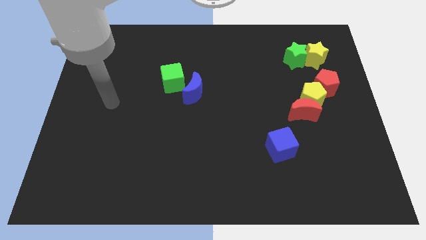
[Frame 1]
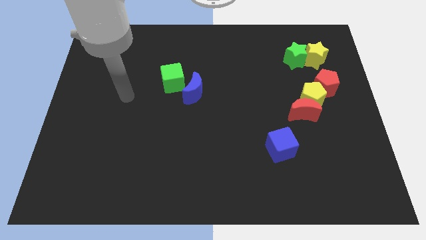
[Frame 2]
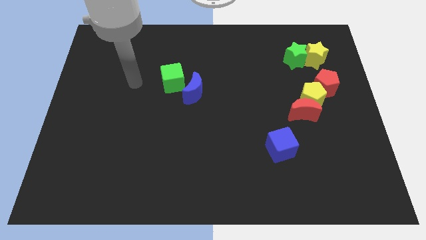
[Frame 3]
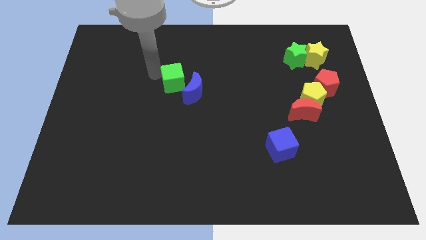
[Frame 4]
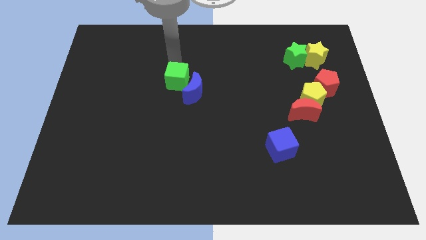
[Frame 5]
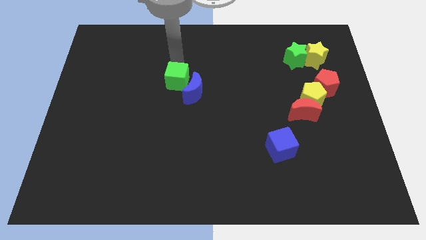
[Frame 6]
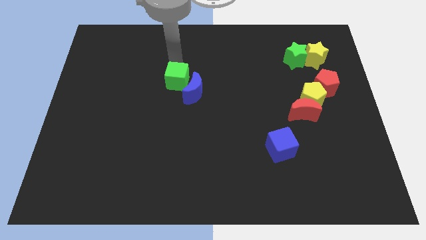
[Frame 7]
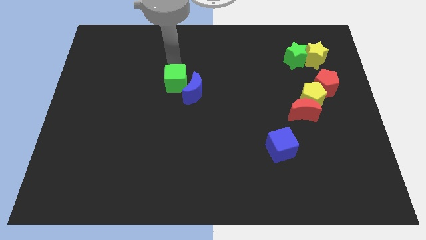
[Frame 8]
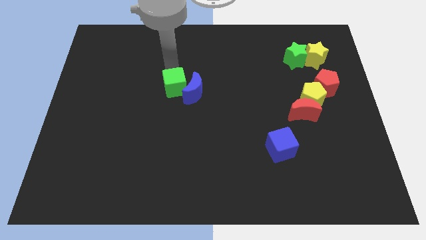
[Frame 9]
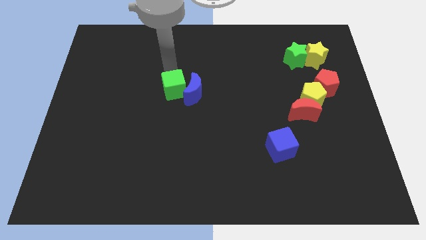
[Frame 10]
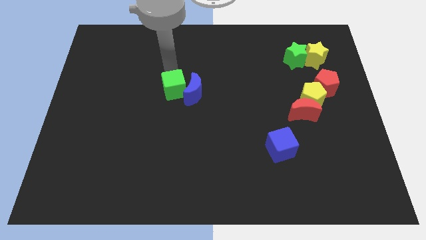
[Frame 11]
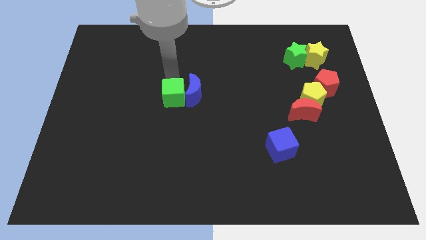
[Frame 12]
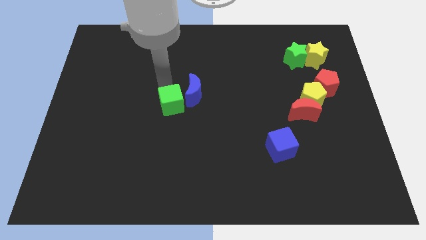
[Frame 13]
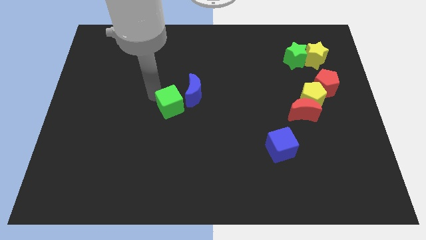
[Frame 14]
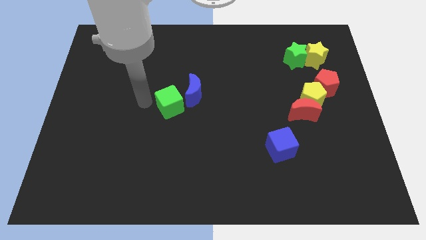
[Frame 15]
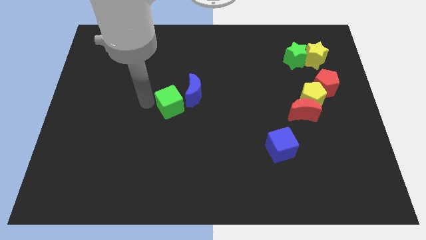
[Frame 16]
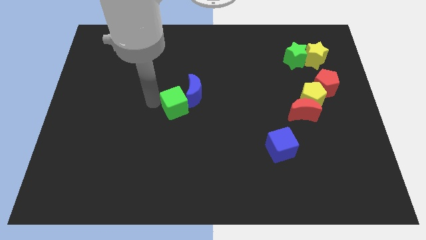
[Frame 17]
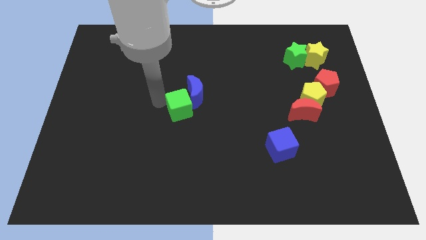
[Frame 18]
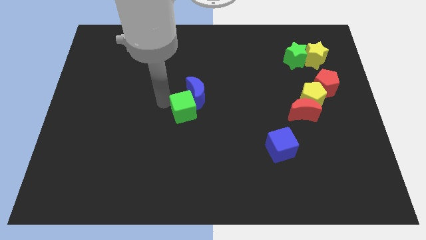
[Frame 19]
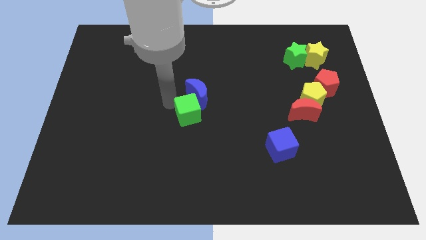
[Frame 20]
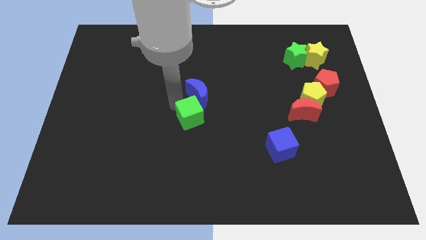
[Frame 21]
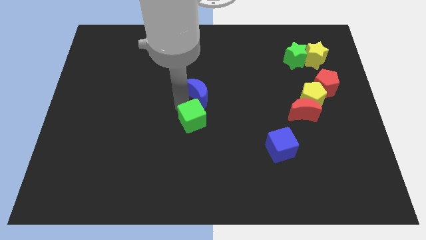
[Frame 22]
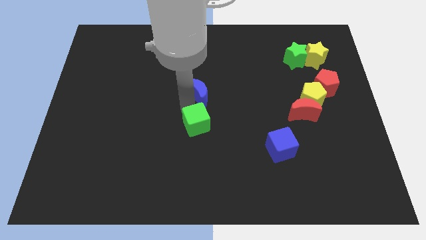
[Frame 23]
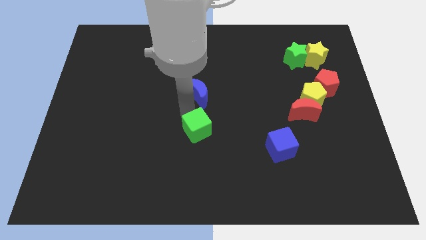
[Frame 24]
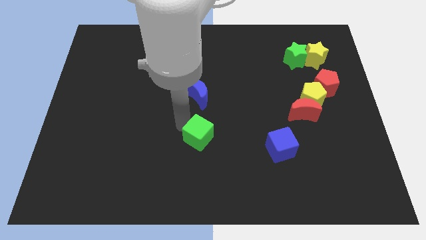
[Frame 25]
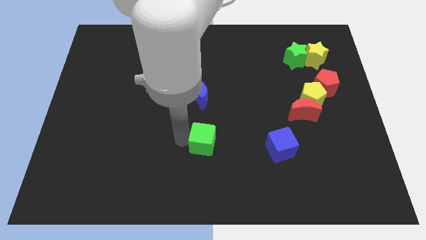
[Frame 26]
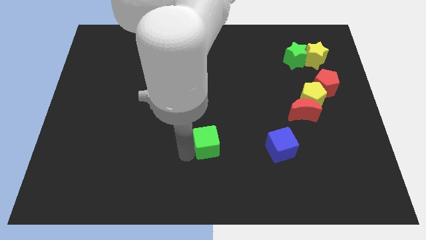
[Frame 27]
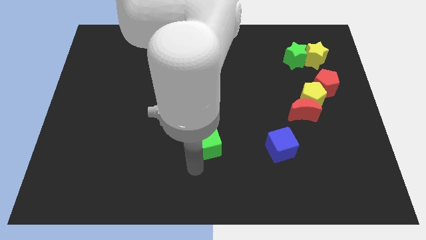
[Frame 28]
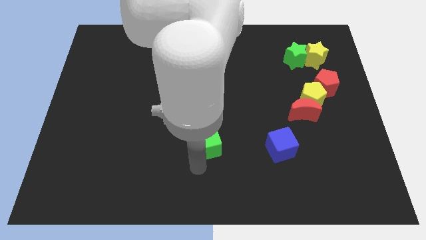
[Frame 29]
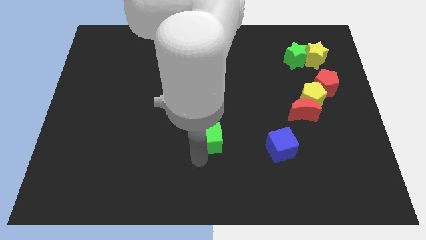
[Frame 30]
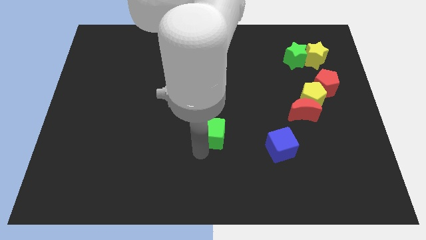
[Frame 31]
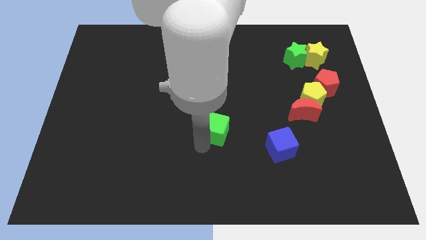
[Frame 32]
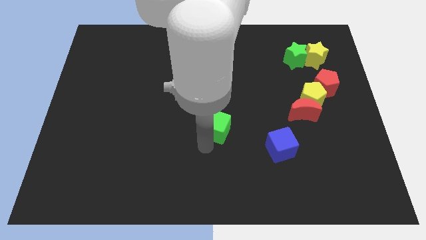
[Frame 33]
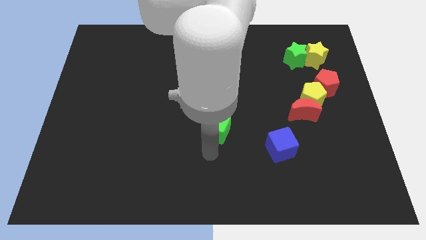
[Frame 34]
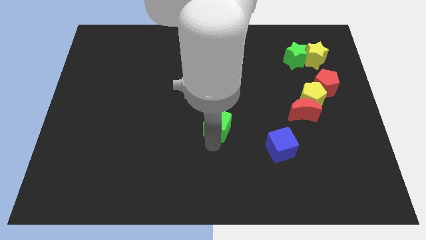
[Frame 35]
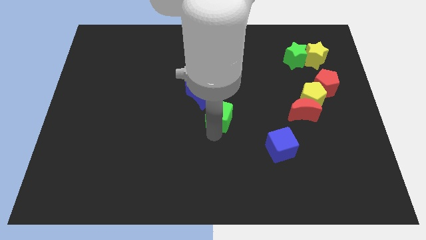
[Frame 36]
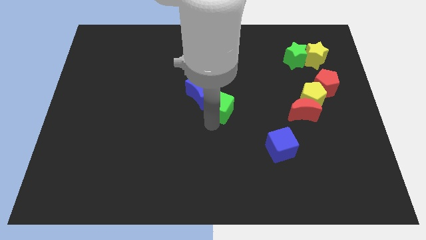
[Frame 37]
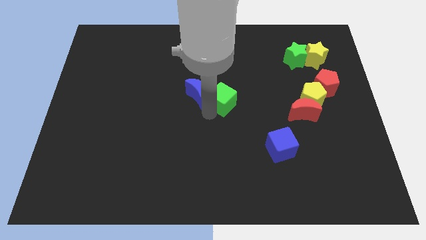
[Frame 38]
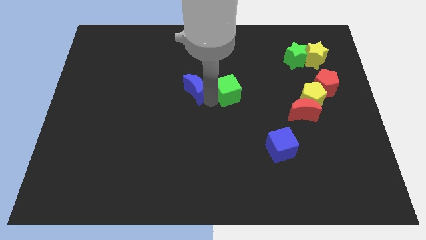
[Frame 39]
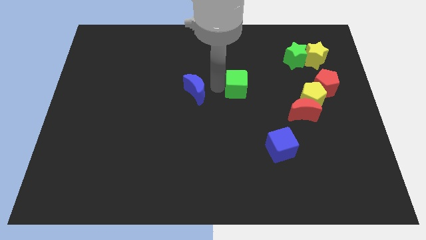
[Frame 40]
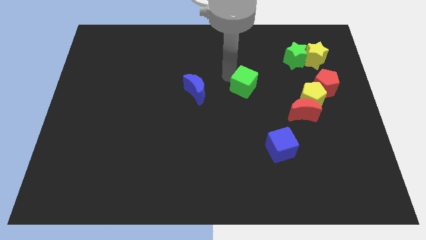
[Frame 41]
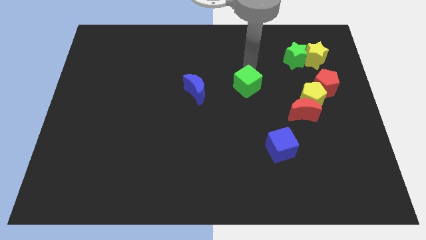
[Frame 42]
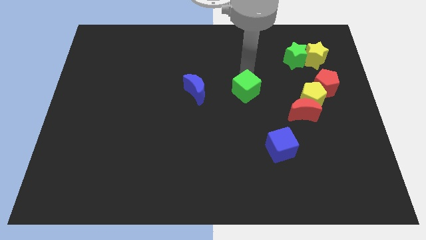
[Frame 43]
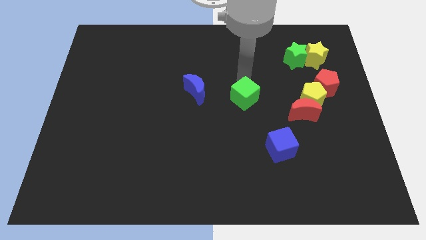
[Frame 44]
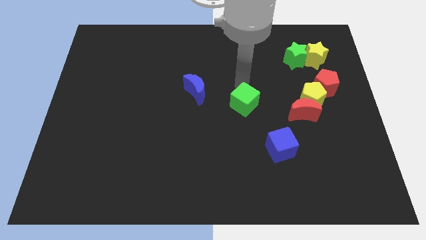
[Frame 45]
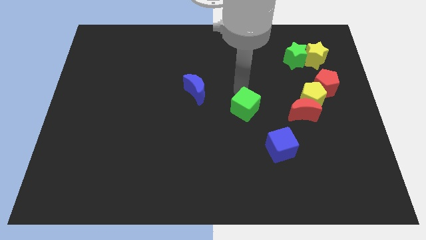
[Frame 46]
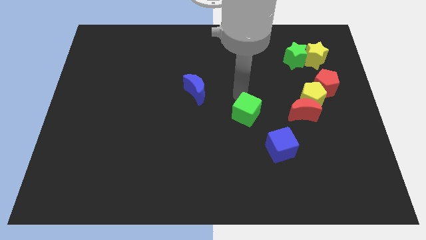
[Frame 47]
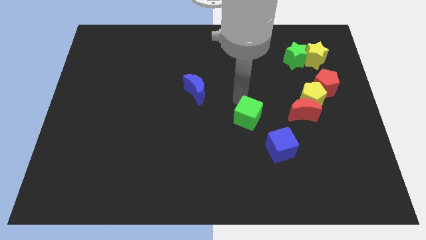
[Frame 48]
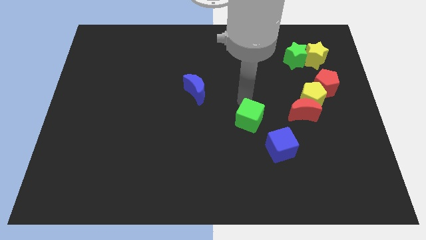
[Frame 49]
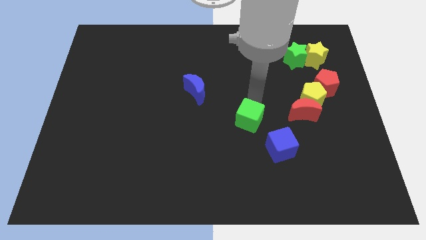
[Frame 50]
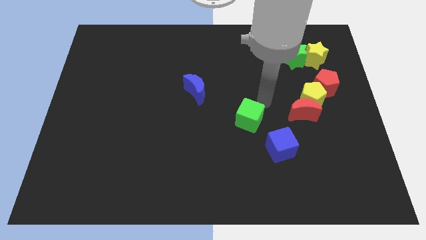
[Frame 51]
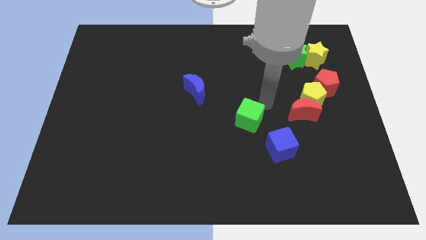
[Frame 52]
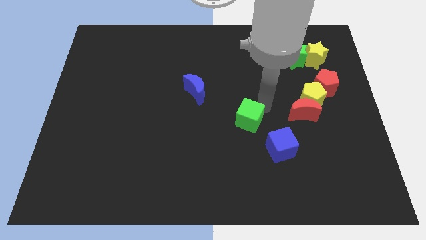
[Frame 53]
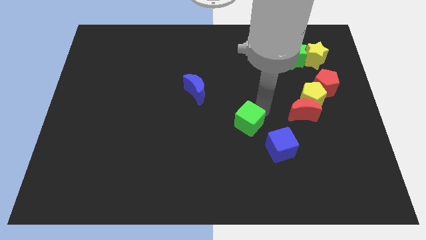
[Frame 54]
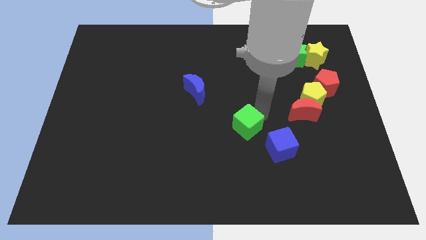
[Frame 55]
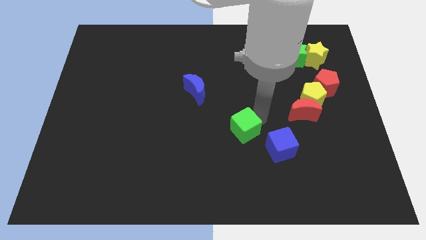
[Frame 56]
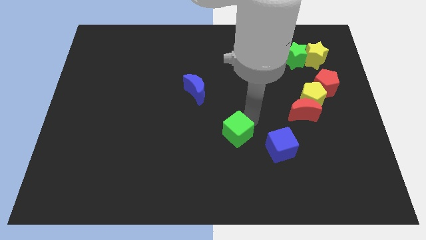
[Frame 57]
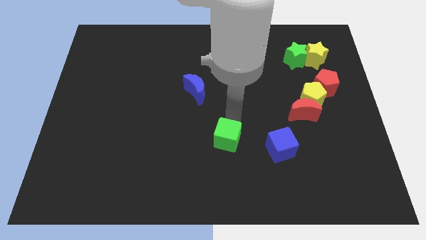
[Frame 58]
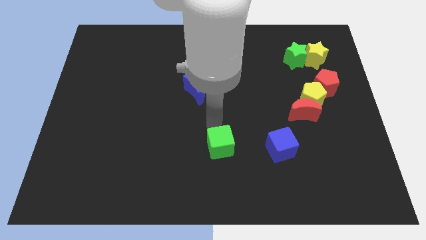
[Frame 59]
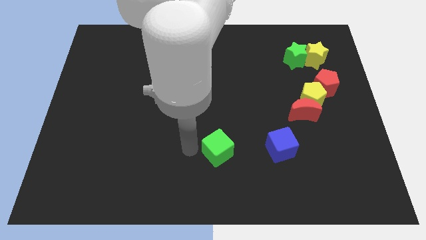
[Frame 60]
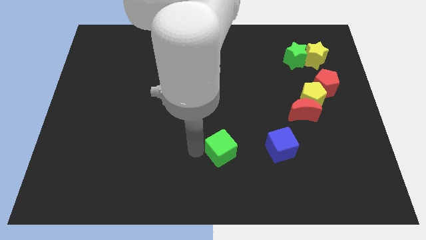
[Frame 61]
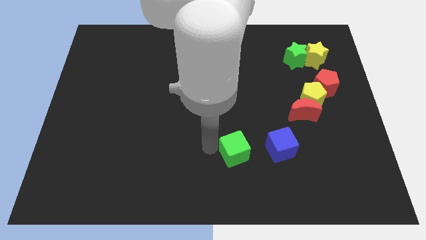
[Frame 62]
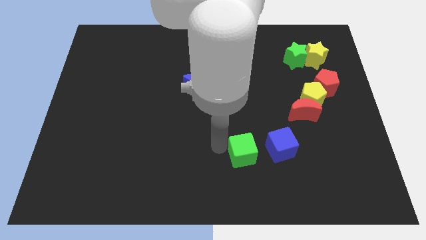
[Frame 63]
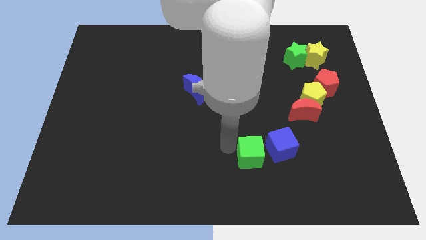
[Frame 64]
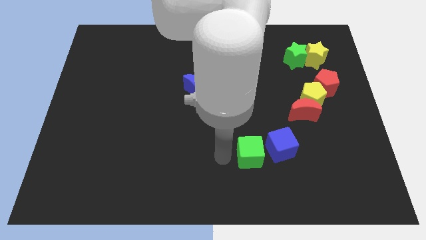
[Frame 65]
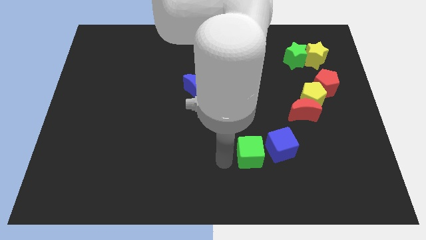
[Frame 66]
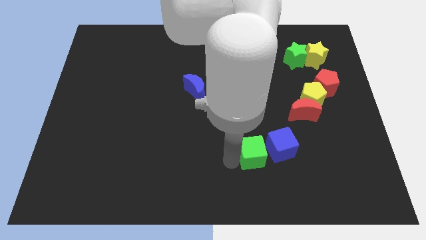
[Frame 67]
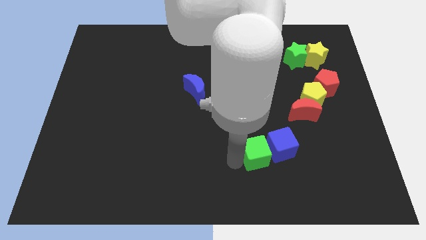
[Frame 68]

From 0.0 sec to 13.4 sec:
move the green cube to the blue cube
